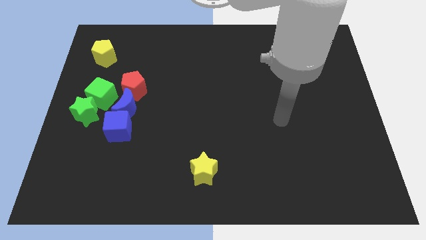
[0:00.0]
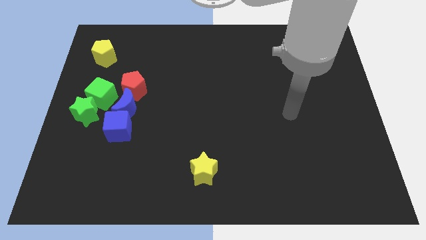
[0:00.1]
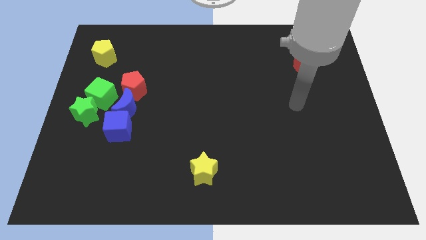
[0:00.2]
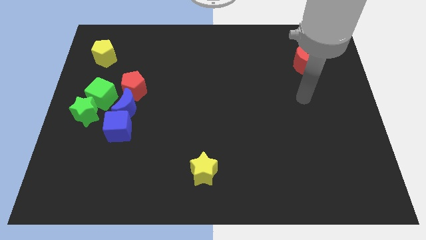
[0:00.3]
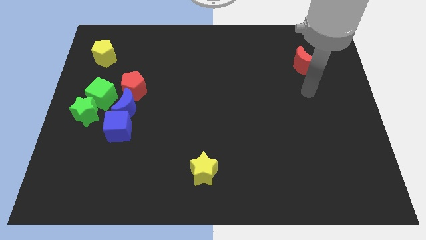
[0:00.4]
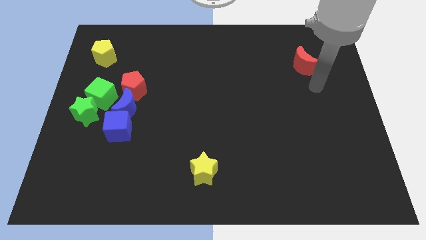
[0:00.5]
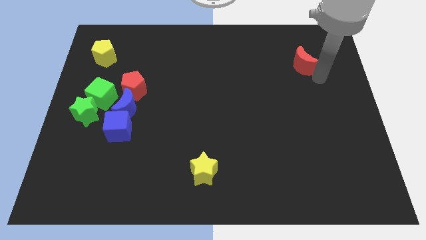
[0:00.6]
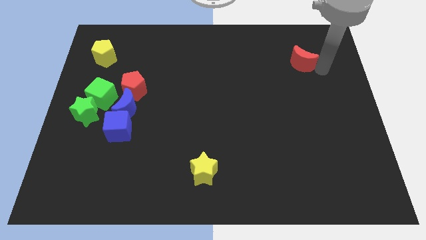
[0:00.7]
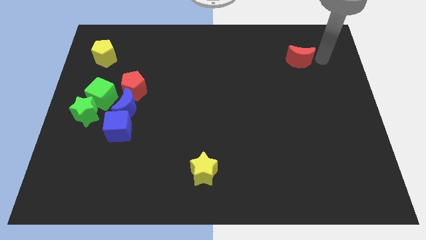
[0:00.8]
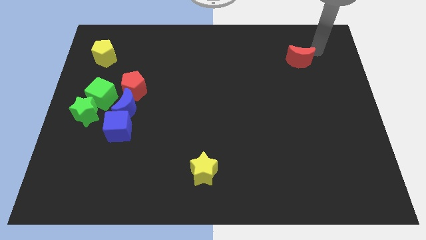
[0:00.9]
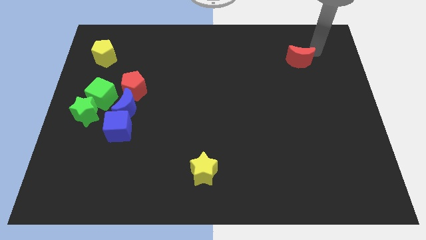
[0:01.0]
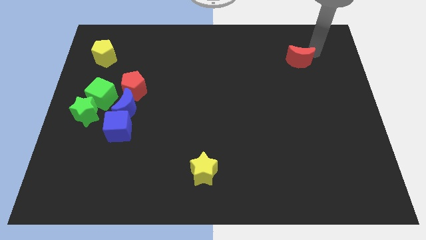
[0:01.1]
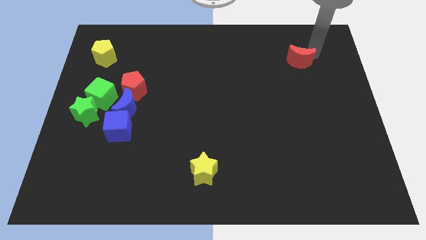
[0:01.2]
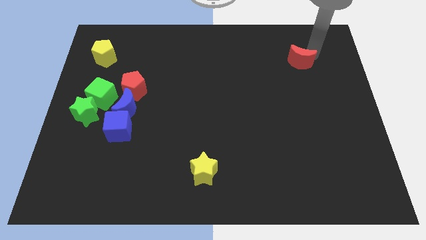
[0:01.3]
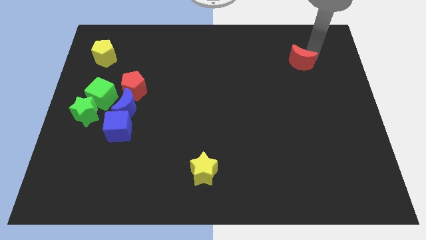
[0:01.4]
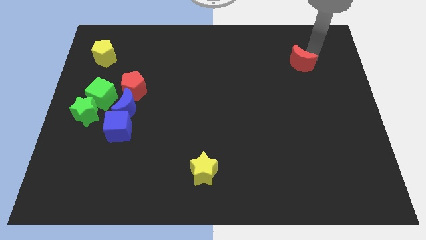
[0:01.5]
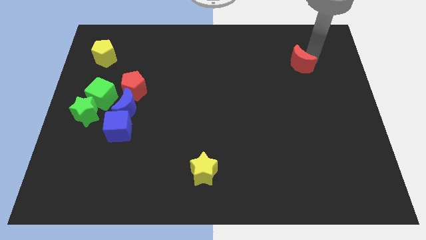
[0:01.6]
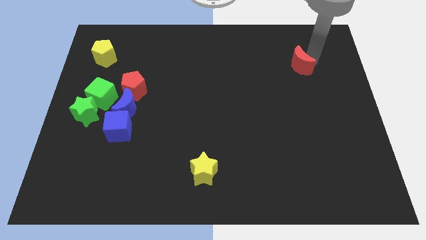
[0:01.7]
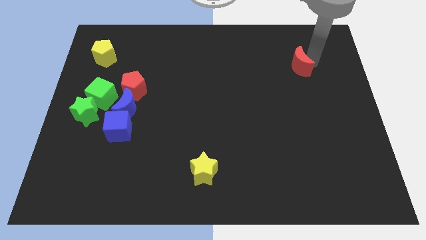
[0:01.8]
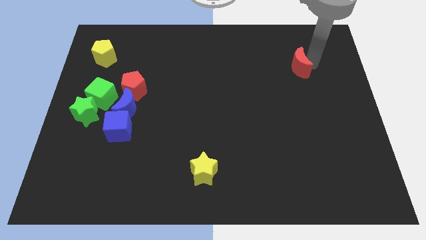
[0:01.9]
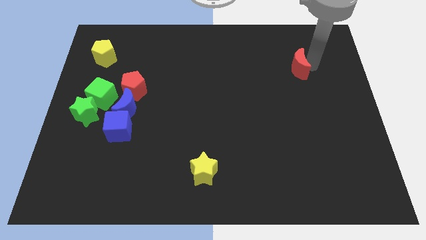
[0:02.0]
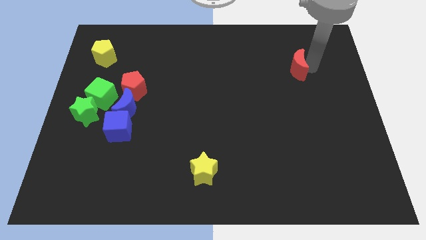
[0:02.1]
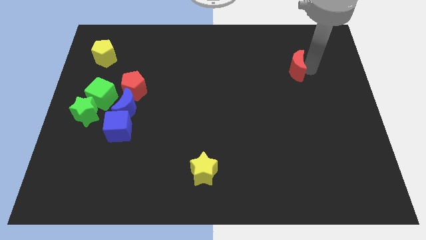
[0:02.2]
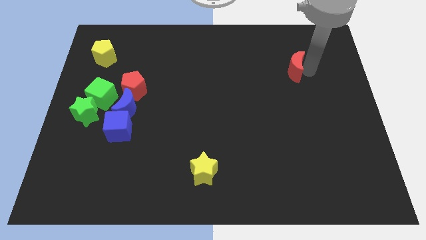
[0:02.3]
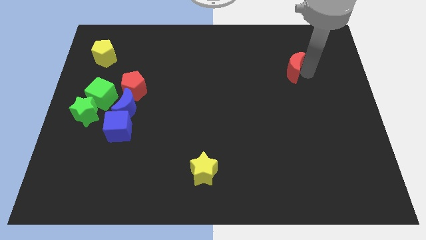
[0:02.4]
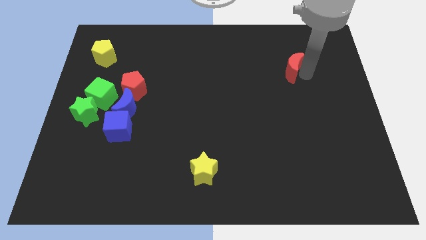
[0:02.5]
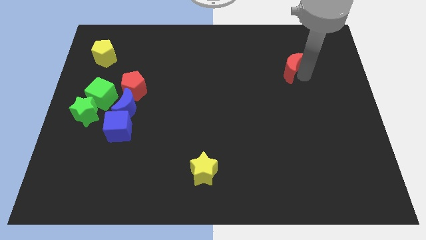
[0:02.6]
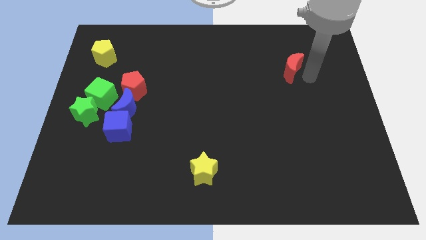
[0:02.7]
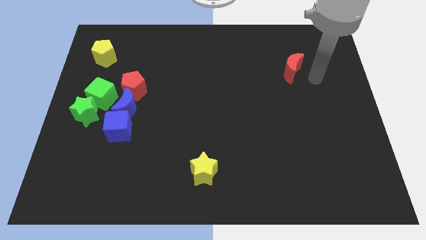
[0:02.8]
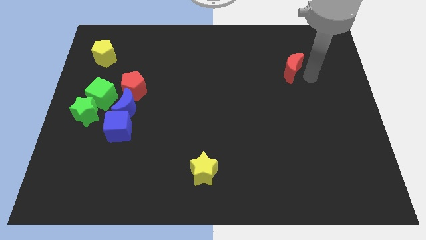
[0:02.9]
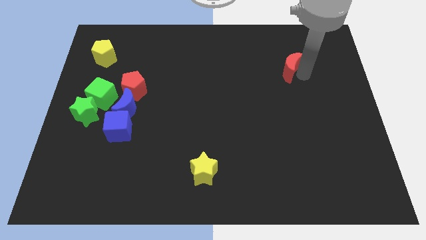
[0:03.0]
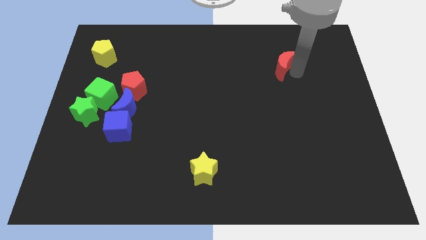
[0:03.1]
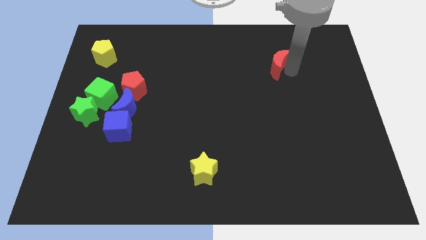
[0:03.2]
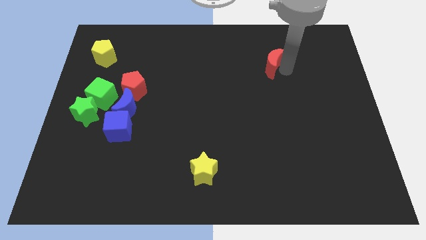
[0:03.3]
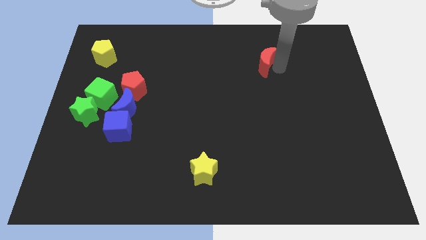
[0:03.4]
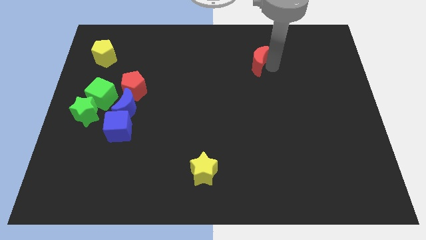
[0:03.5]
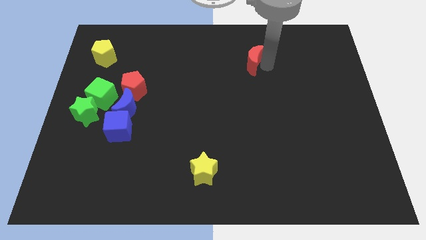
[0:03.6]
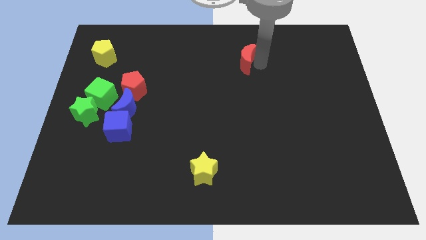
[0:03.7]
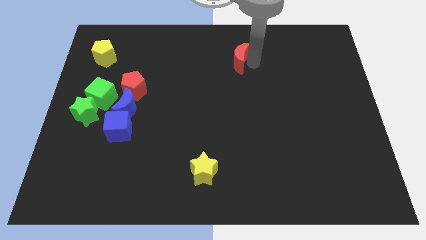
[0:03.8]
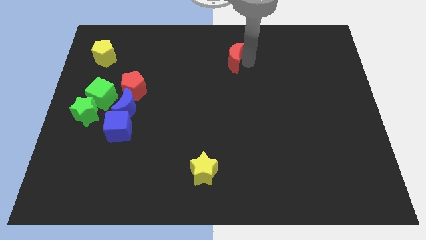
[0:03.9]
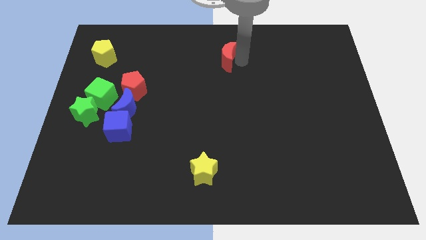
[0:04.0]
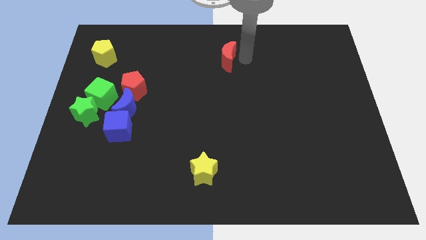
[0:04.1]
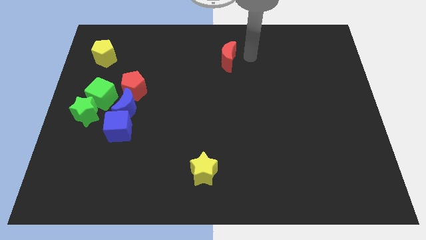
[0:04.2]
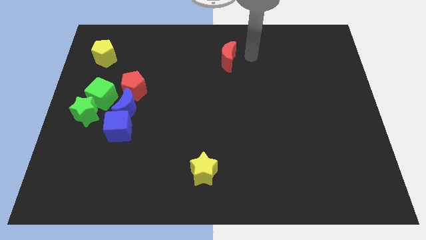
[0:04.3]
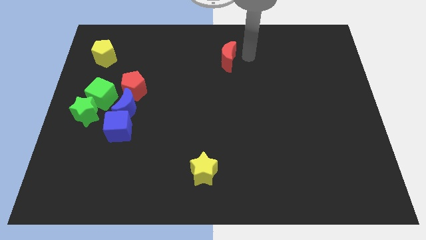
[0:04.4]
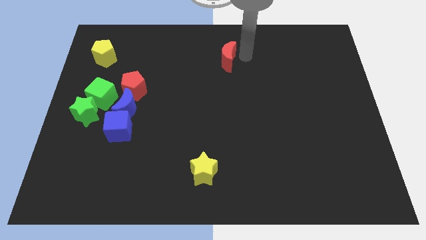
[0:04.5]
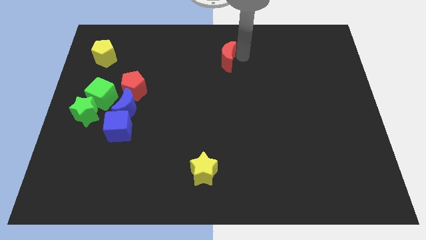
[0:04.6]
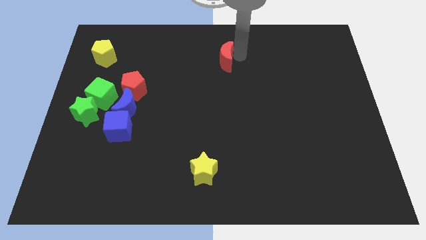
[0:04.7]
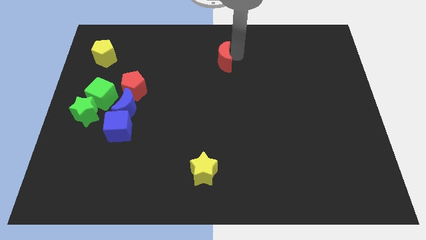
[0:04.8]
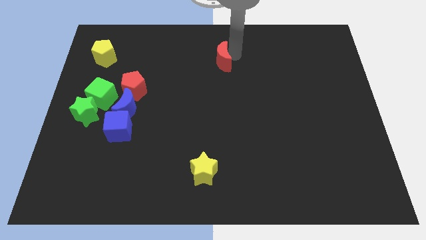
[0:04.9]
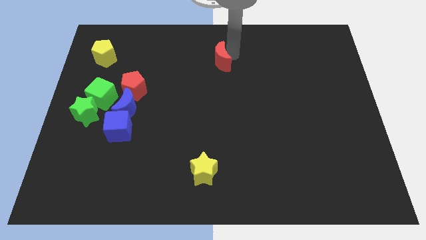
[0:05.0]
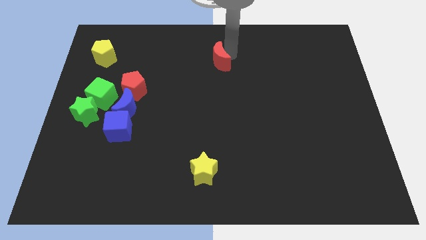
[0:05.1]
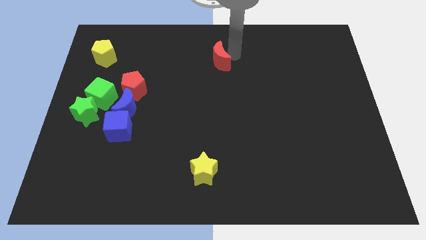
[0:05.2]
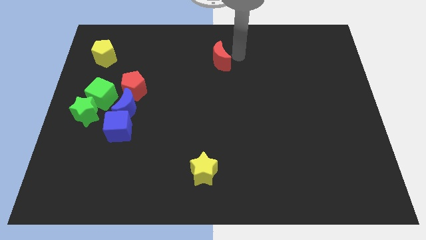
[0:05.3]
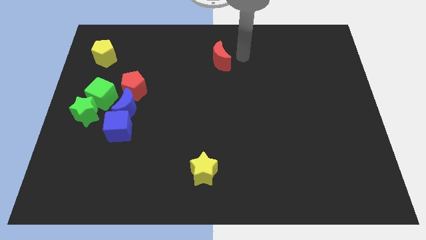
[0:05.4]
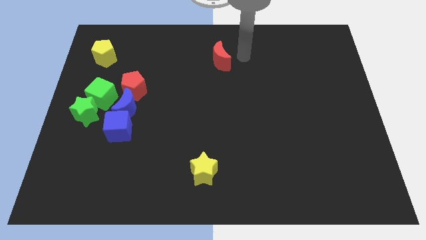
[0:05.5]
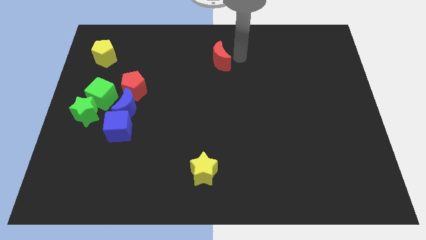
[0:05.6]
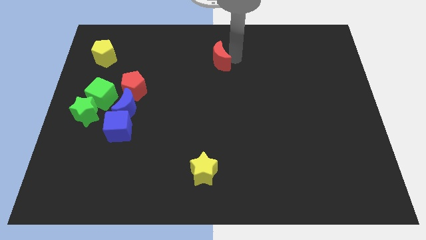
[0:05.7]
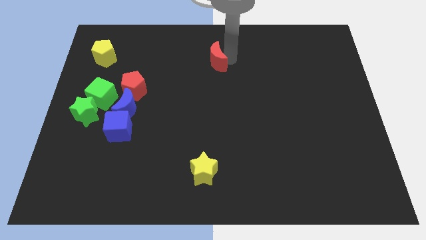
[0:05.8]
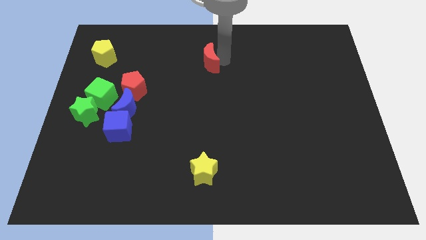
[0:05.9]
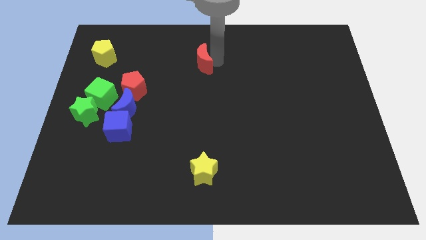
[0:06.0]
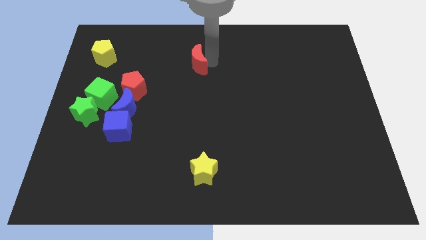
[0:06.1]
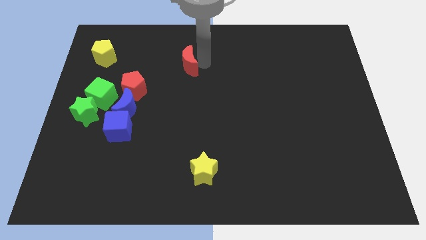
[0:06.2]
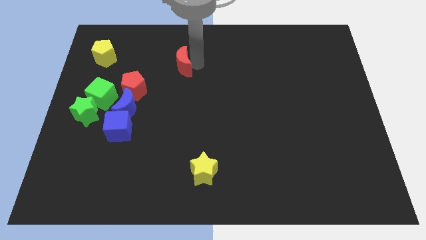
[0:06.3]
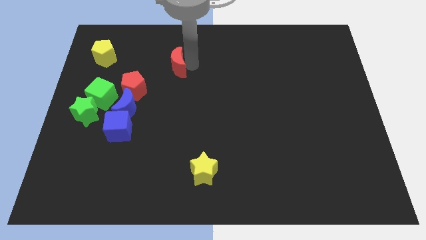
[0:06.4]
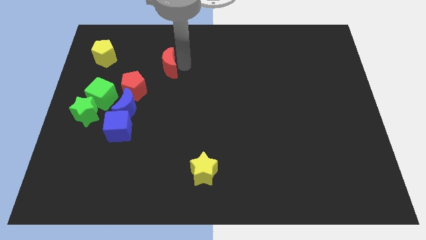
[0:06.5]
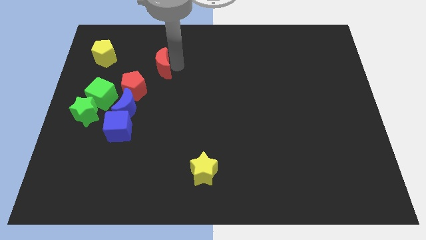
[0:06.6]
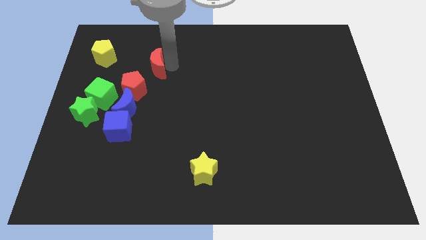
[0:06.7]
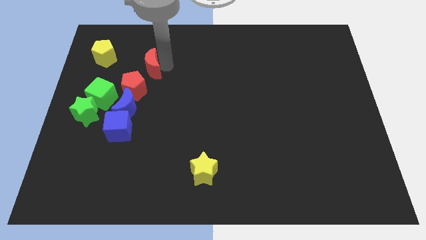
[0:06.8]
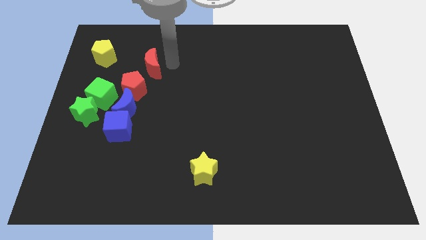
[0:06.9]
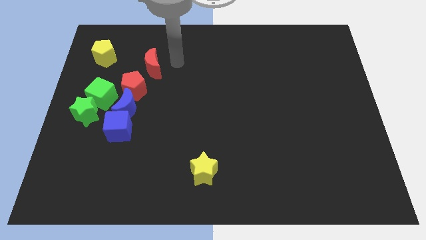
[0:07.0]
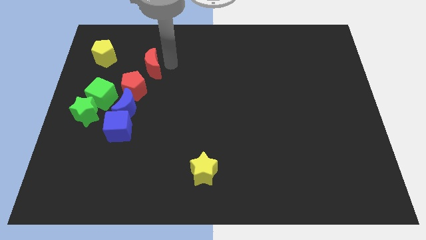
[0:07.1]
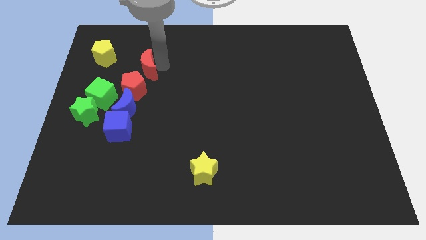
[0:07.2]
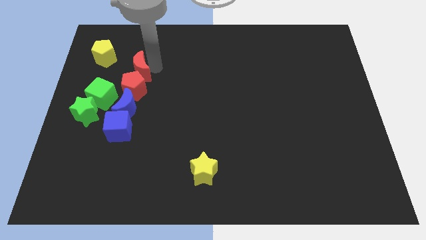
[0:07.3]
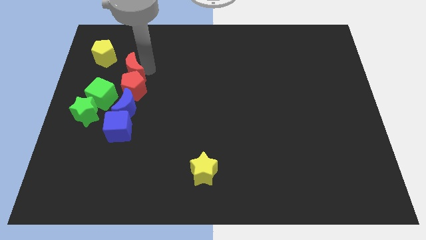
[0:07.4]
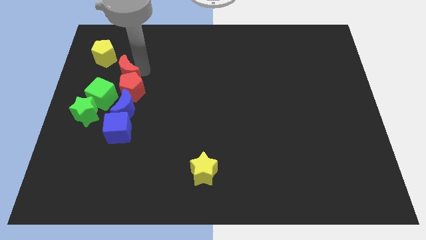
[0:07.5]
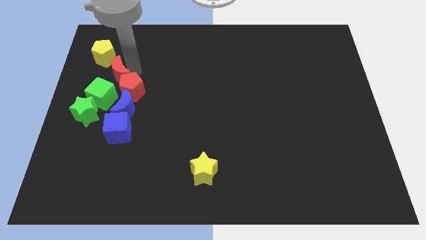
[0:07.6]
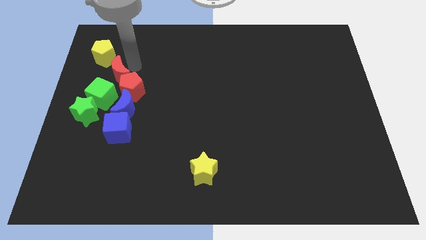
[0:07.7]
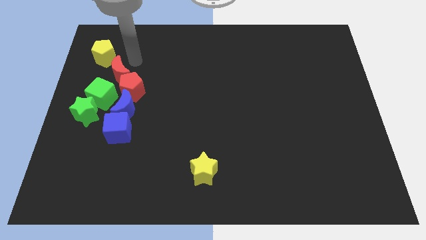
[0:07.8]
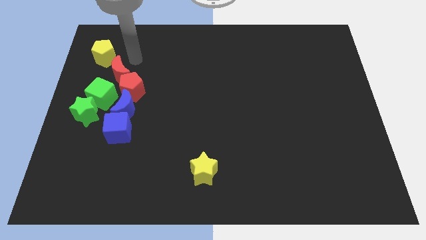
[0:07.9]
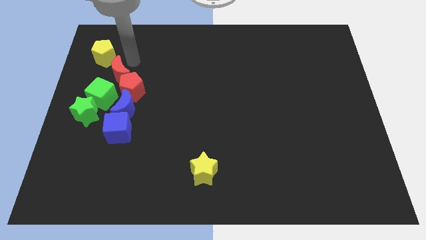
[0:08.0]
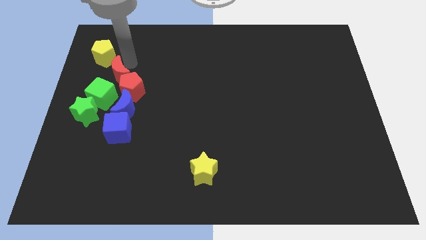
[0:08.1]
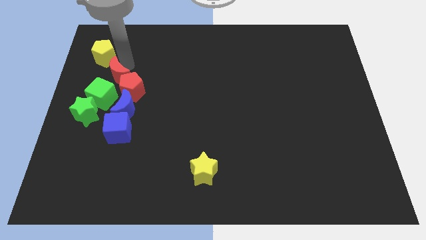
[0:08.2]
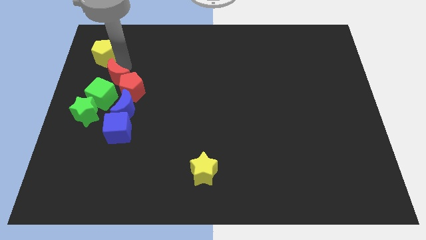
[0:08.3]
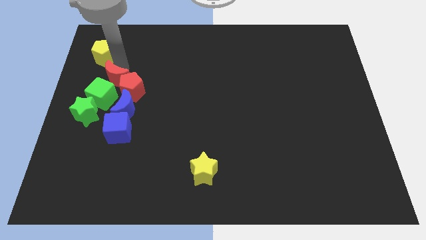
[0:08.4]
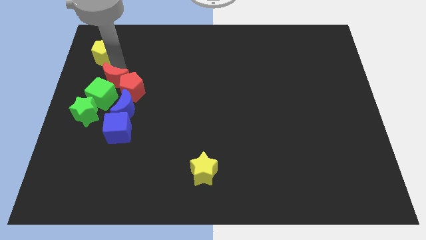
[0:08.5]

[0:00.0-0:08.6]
put the red moon towards the green cube
